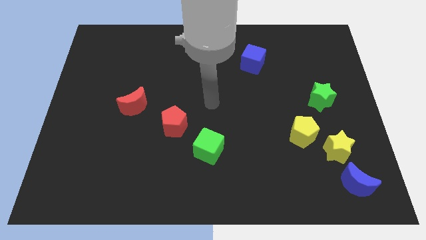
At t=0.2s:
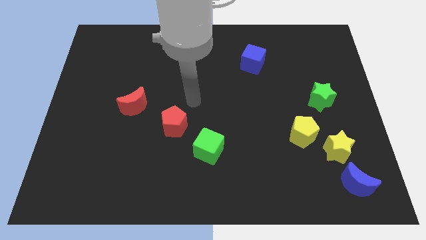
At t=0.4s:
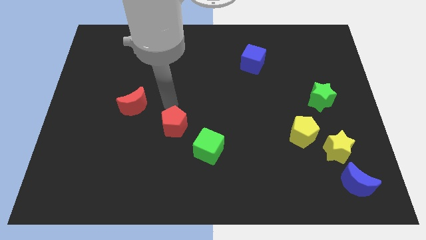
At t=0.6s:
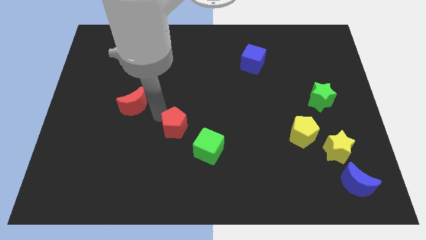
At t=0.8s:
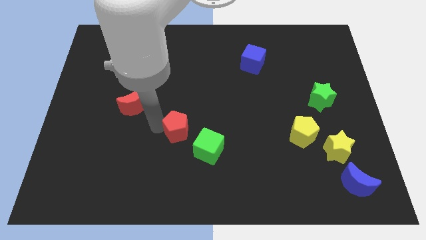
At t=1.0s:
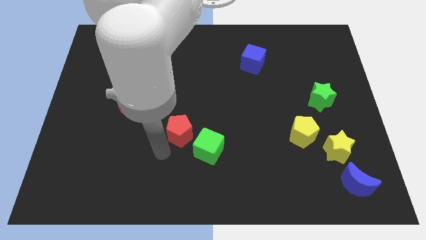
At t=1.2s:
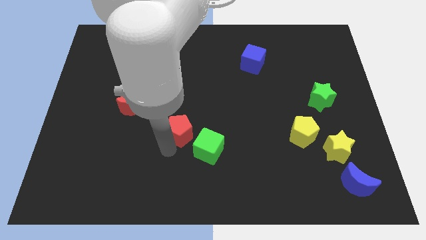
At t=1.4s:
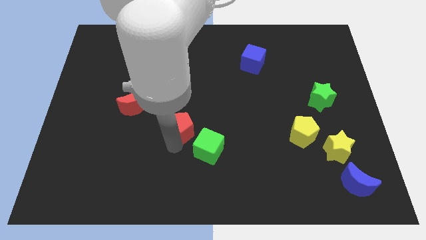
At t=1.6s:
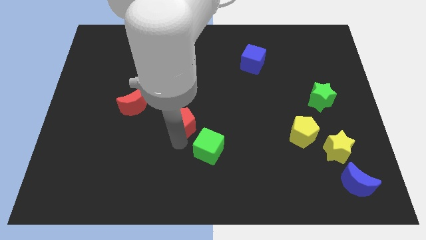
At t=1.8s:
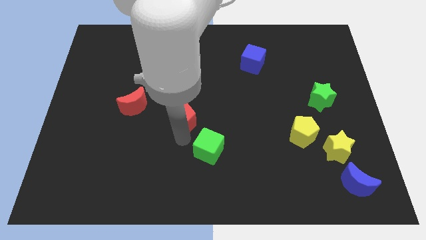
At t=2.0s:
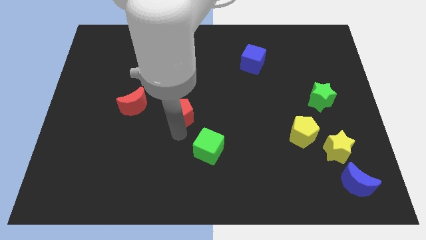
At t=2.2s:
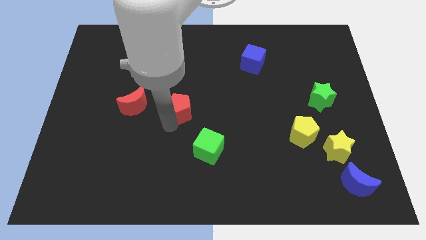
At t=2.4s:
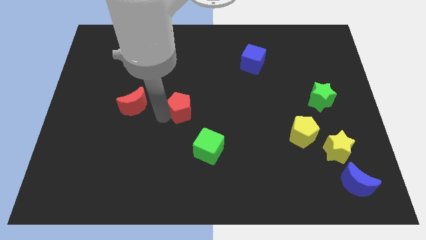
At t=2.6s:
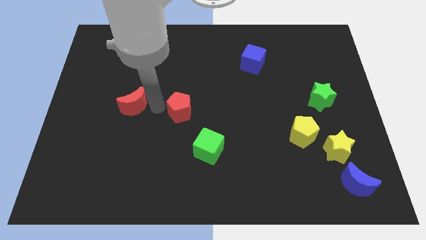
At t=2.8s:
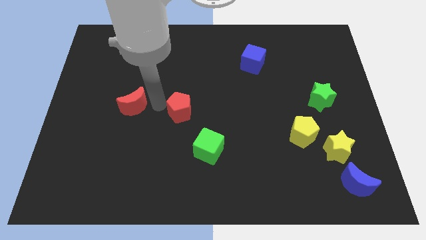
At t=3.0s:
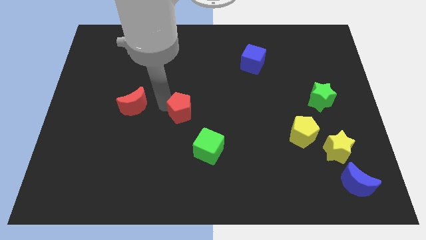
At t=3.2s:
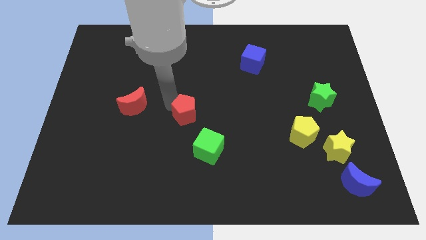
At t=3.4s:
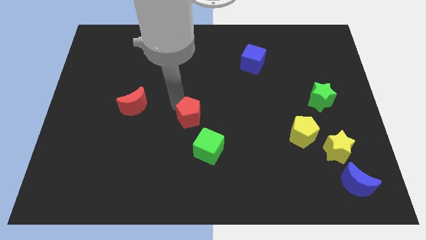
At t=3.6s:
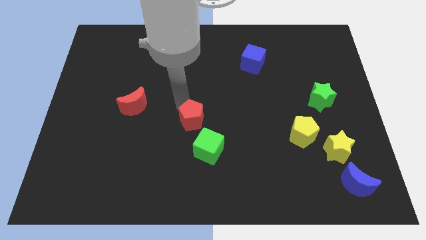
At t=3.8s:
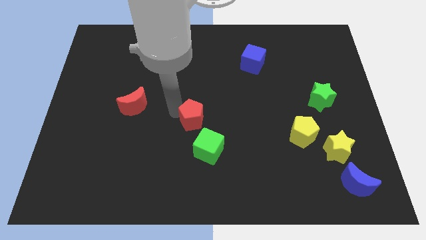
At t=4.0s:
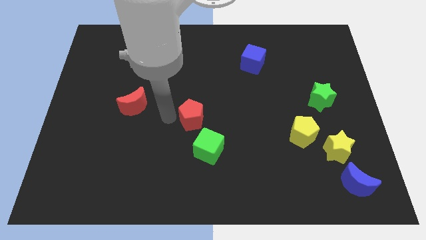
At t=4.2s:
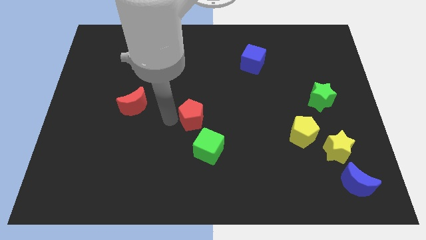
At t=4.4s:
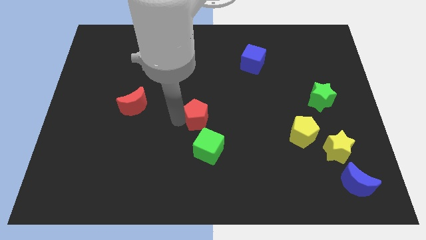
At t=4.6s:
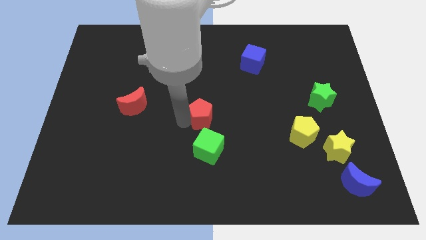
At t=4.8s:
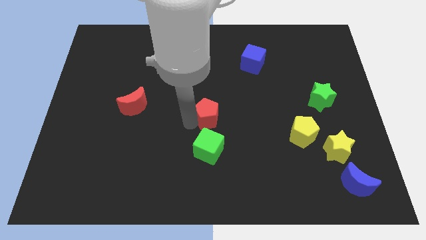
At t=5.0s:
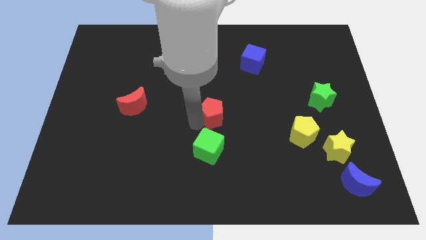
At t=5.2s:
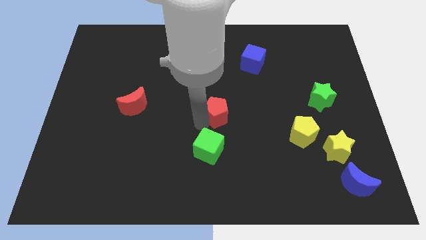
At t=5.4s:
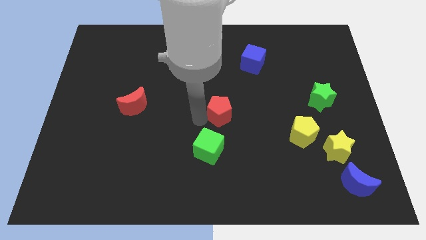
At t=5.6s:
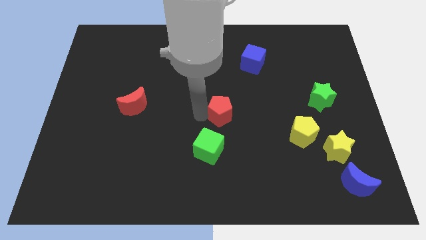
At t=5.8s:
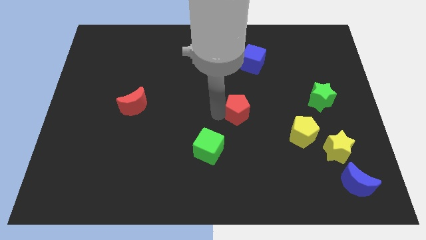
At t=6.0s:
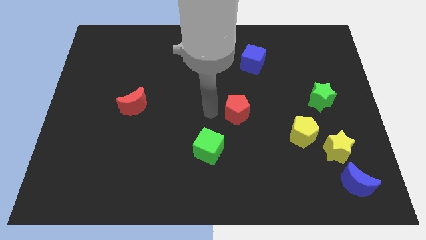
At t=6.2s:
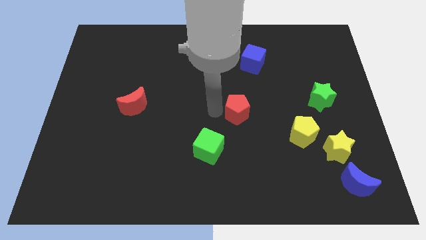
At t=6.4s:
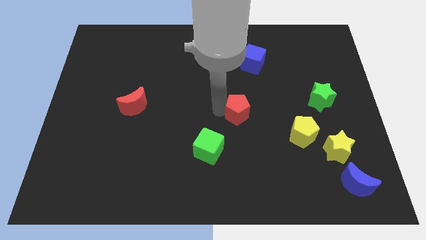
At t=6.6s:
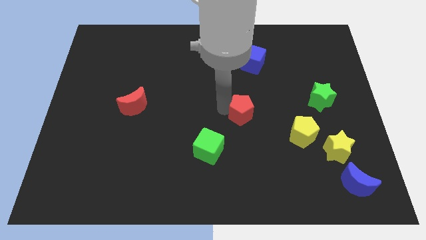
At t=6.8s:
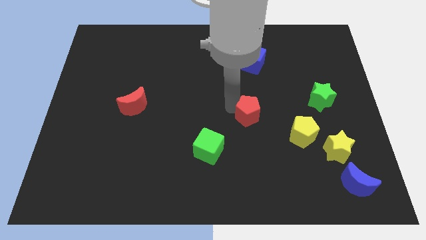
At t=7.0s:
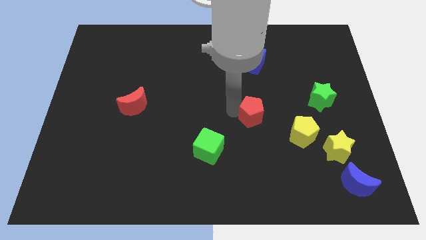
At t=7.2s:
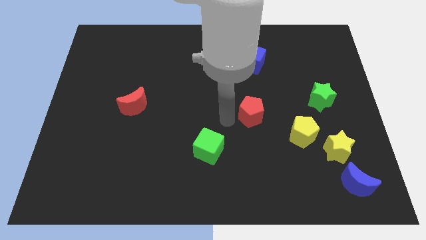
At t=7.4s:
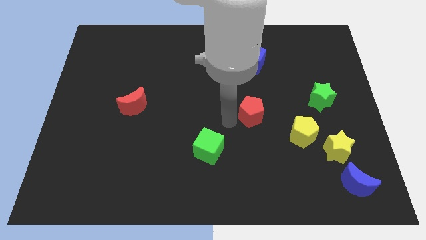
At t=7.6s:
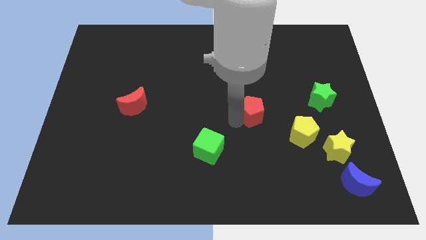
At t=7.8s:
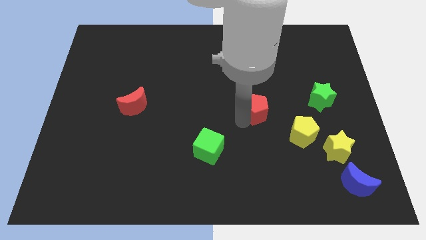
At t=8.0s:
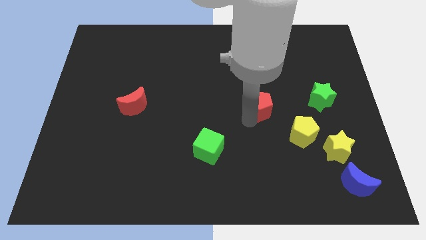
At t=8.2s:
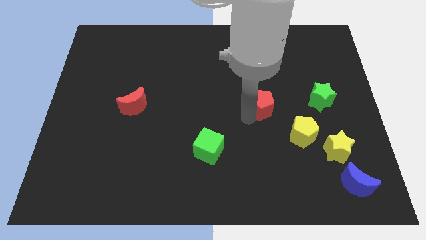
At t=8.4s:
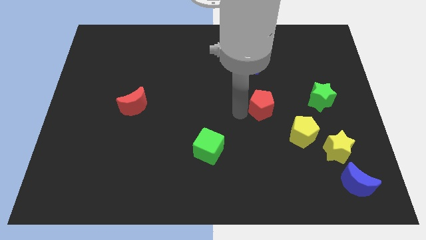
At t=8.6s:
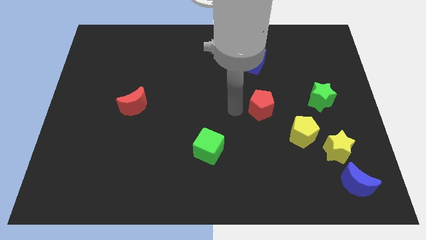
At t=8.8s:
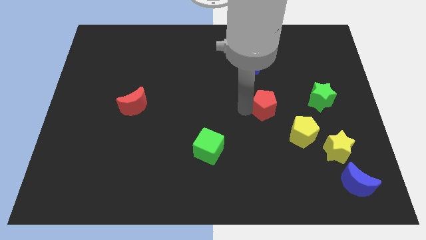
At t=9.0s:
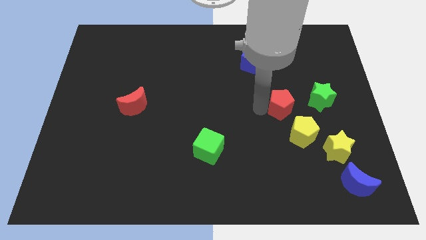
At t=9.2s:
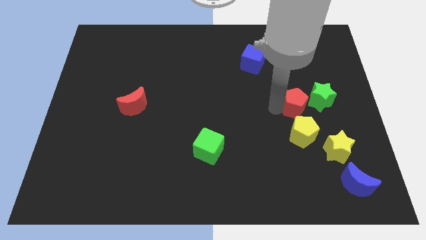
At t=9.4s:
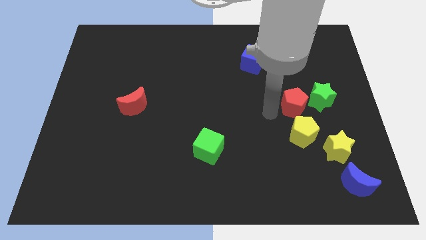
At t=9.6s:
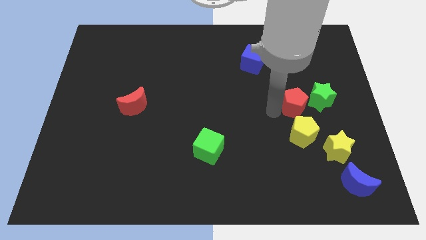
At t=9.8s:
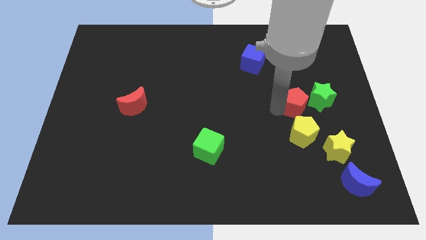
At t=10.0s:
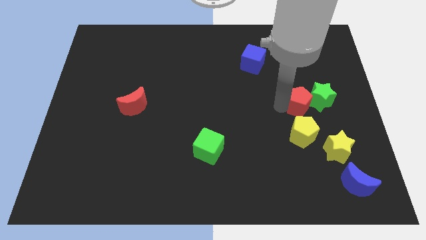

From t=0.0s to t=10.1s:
slide the red pentagon to the green star

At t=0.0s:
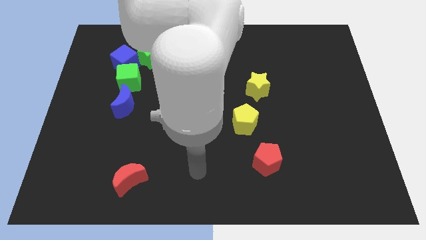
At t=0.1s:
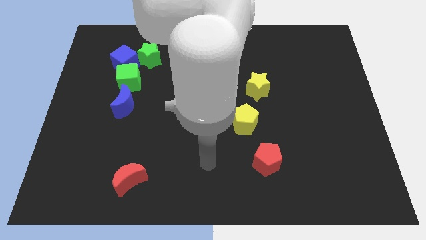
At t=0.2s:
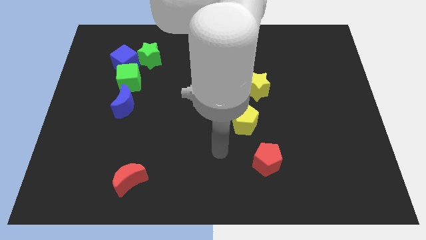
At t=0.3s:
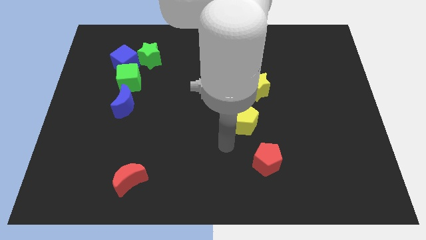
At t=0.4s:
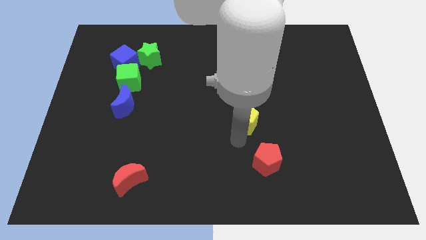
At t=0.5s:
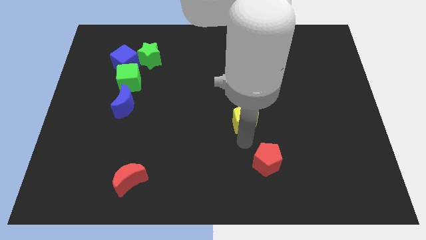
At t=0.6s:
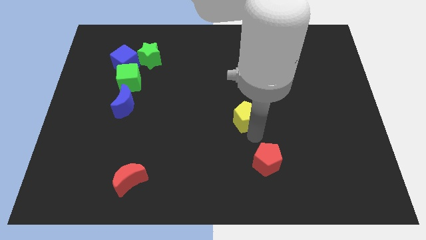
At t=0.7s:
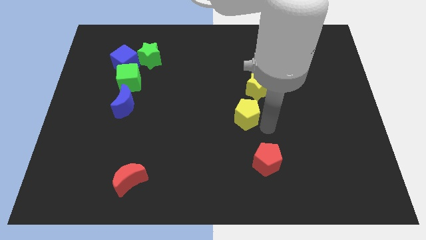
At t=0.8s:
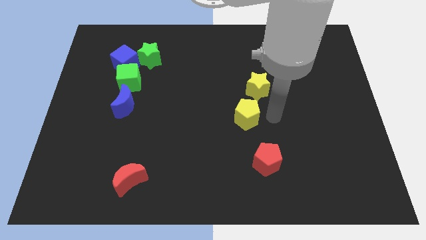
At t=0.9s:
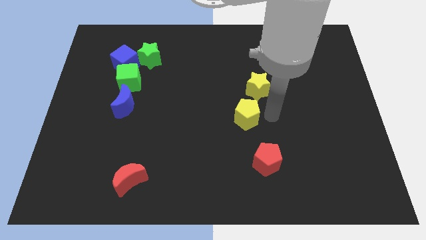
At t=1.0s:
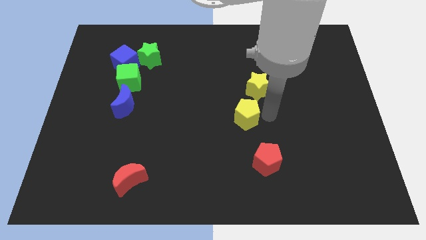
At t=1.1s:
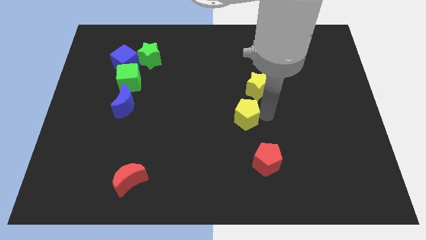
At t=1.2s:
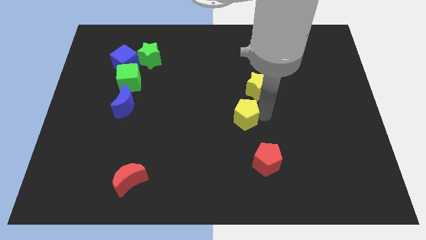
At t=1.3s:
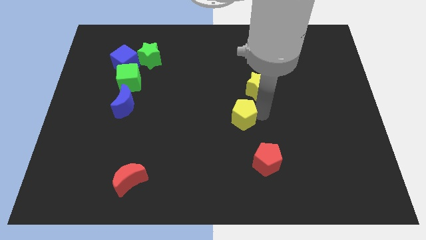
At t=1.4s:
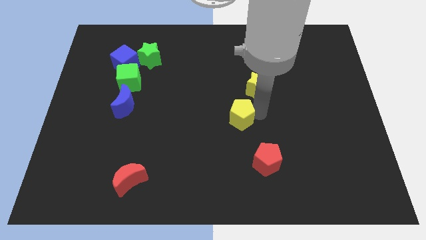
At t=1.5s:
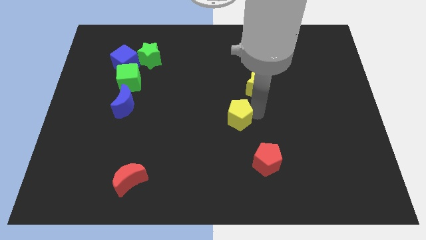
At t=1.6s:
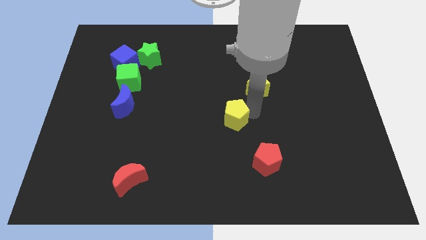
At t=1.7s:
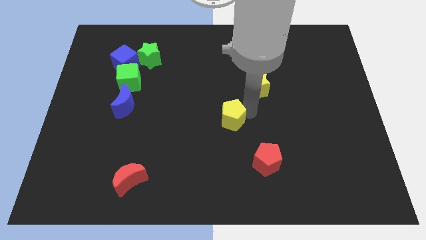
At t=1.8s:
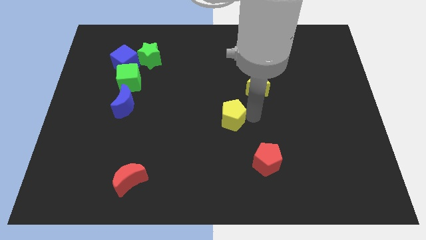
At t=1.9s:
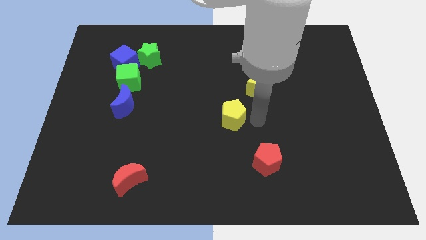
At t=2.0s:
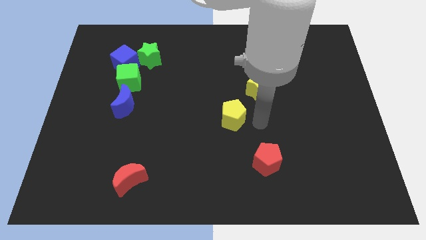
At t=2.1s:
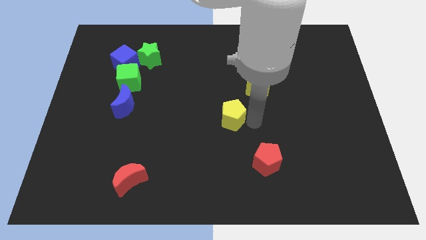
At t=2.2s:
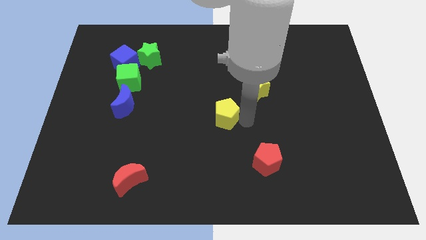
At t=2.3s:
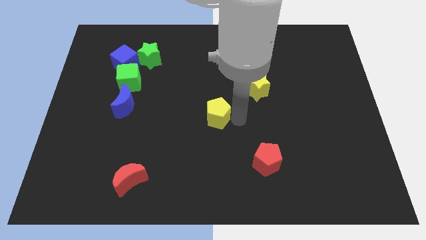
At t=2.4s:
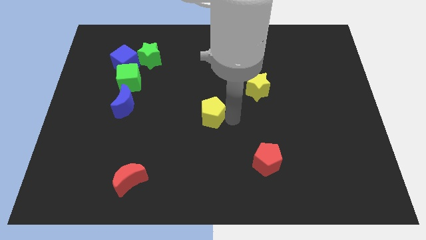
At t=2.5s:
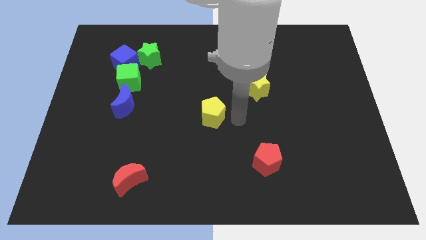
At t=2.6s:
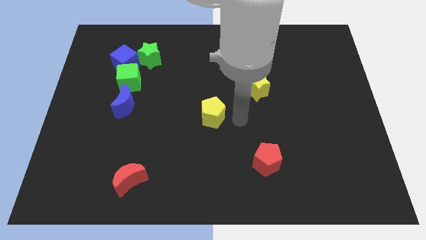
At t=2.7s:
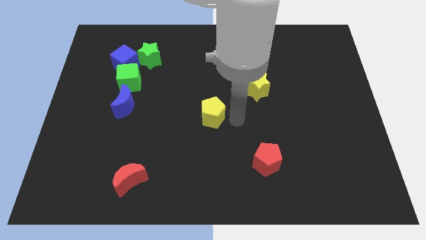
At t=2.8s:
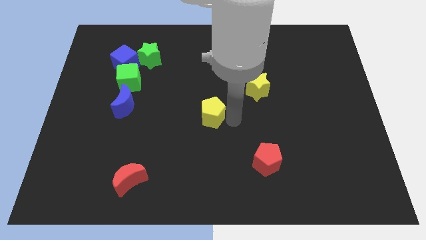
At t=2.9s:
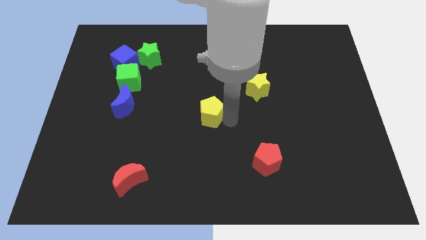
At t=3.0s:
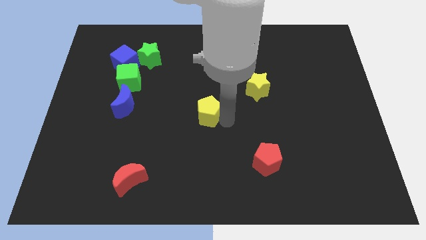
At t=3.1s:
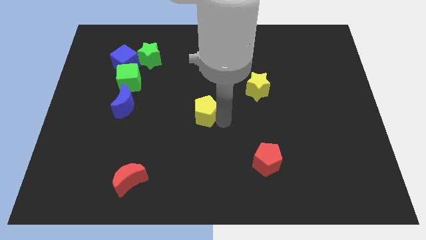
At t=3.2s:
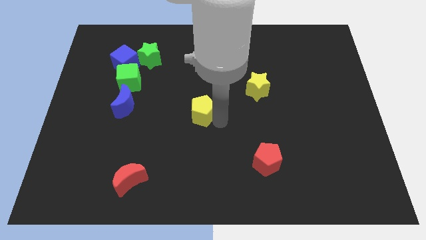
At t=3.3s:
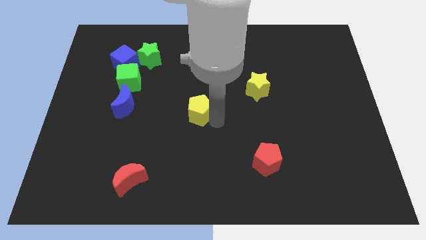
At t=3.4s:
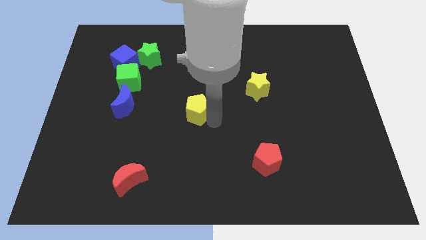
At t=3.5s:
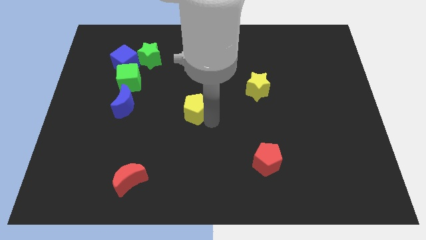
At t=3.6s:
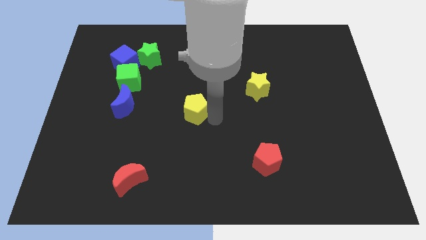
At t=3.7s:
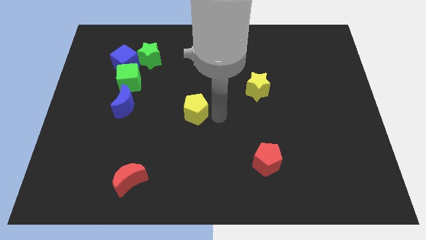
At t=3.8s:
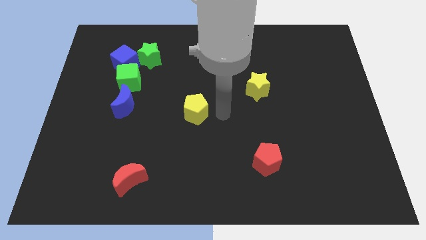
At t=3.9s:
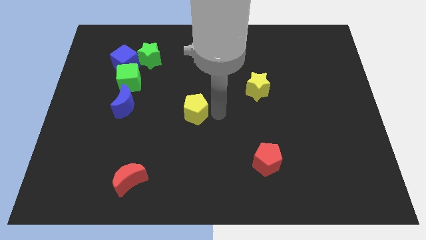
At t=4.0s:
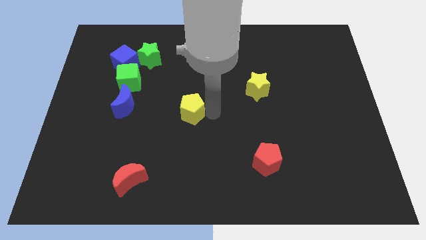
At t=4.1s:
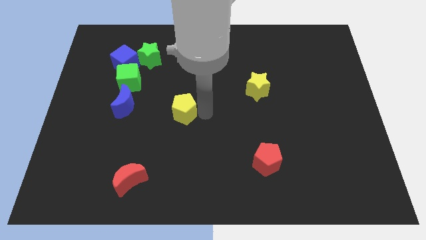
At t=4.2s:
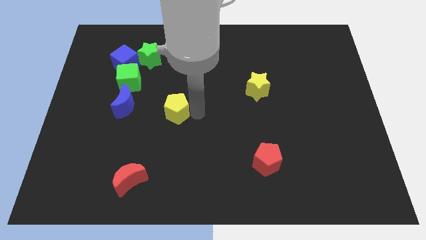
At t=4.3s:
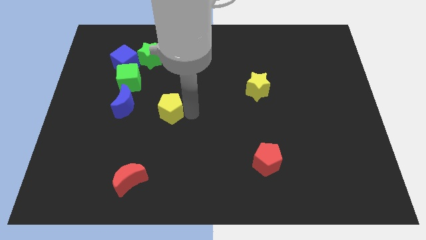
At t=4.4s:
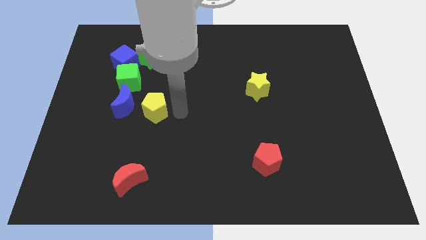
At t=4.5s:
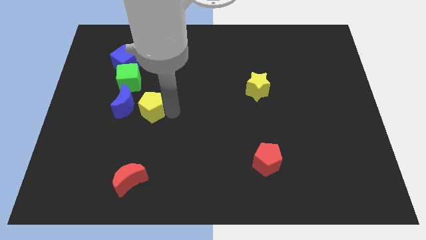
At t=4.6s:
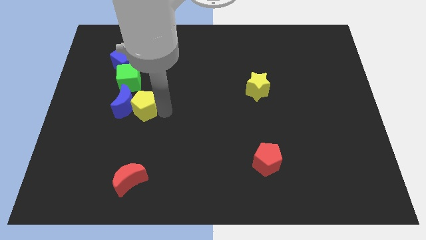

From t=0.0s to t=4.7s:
slide the yellow pentagon towards the blue moon
